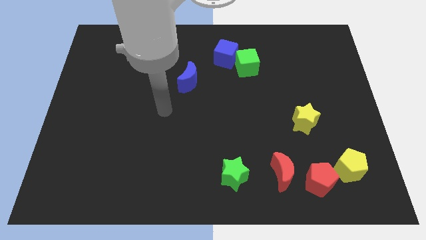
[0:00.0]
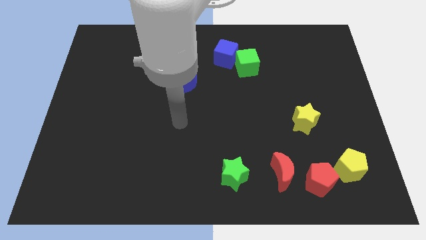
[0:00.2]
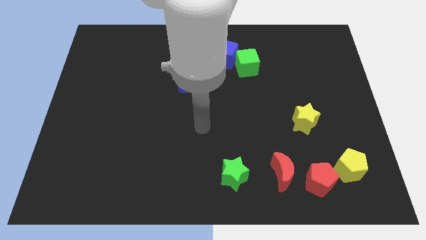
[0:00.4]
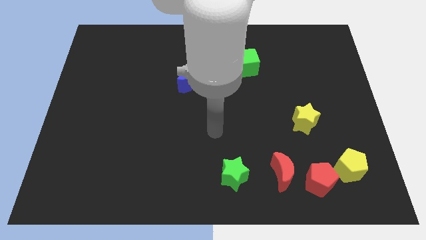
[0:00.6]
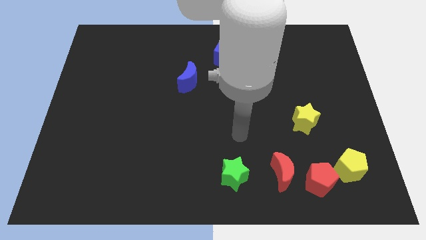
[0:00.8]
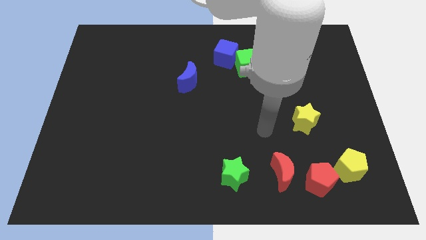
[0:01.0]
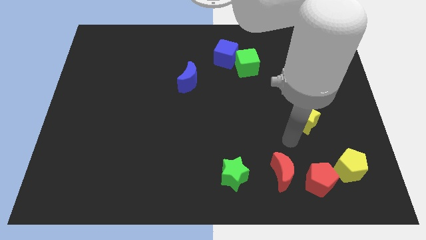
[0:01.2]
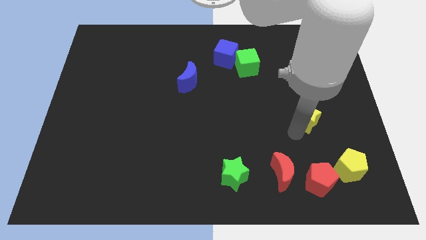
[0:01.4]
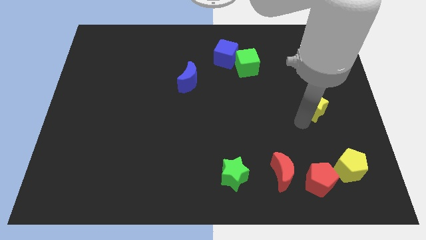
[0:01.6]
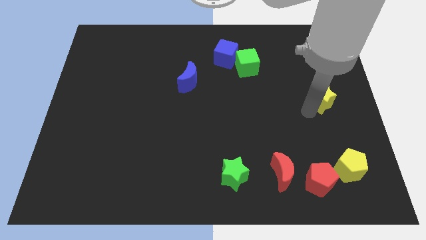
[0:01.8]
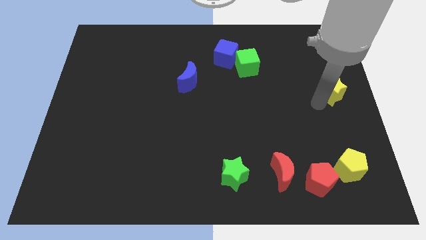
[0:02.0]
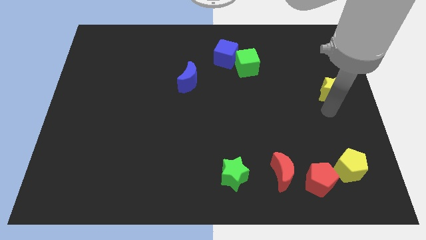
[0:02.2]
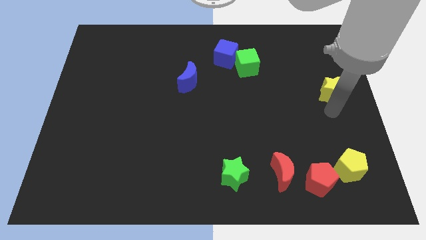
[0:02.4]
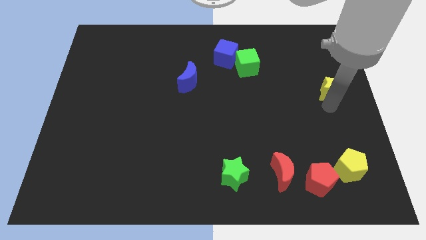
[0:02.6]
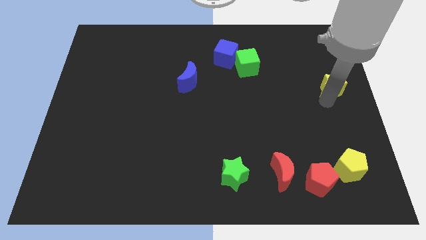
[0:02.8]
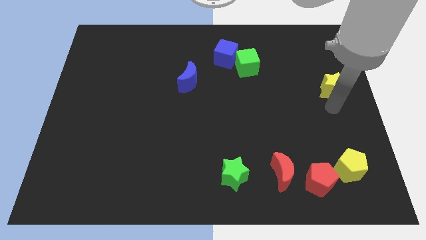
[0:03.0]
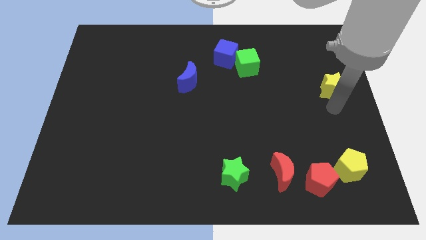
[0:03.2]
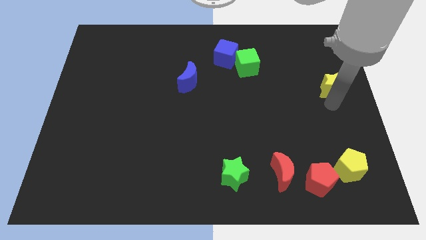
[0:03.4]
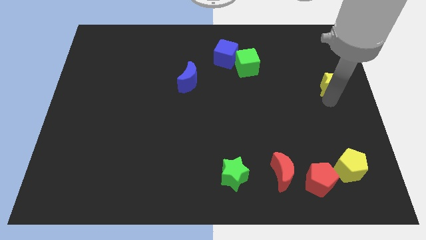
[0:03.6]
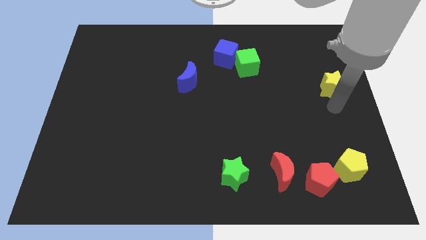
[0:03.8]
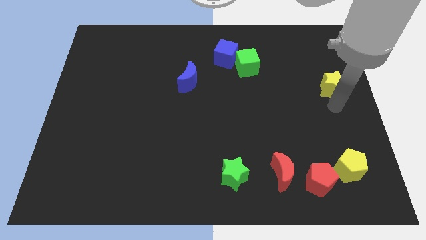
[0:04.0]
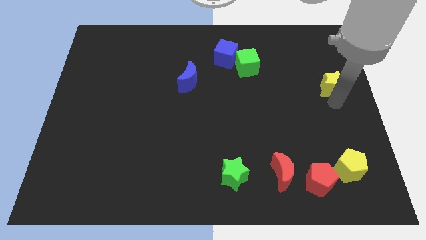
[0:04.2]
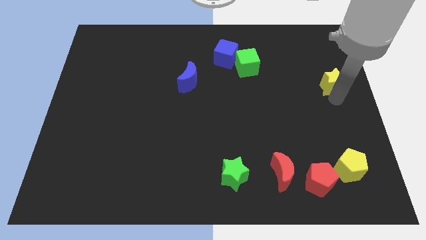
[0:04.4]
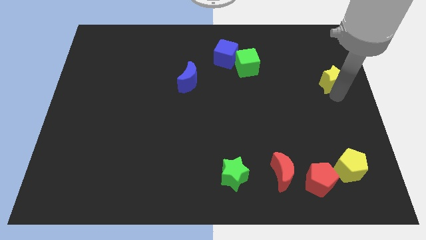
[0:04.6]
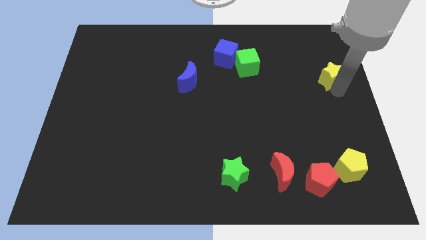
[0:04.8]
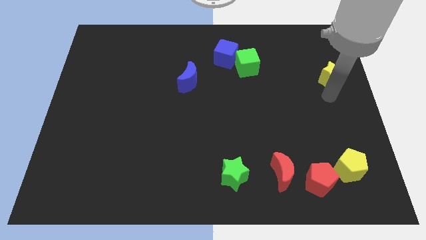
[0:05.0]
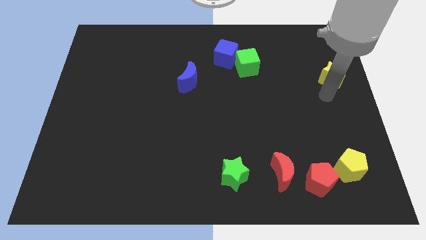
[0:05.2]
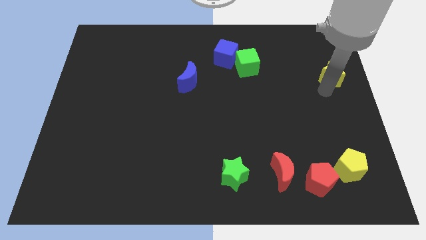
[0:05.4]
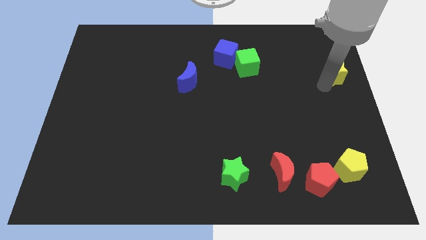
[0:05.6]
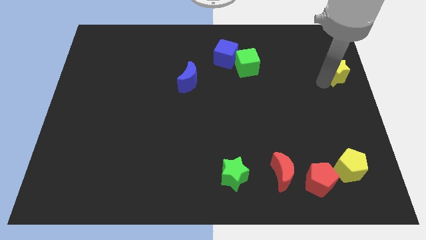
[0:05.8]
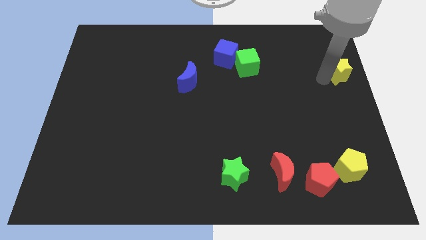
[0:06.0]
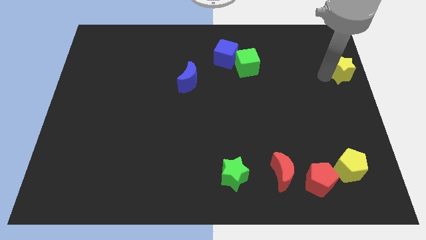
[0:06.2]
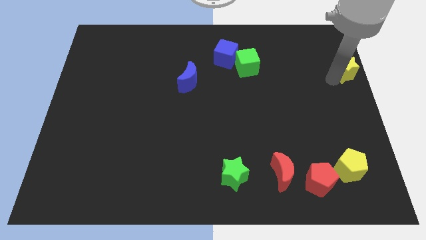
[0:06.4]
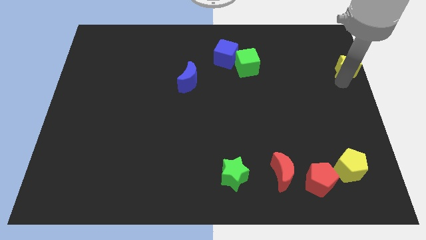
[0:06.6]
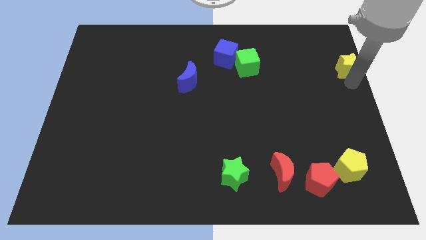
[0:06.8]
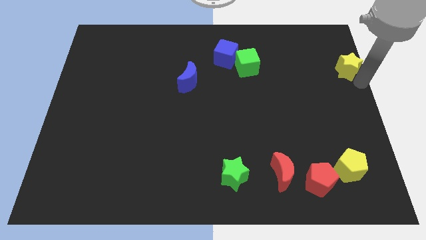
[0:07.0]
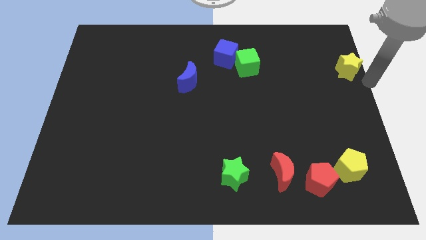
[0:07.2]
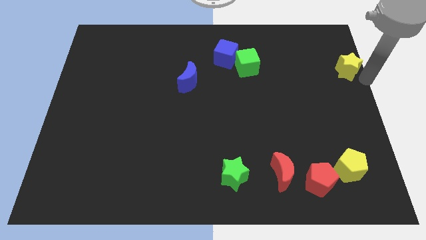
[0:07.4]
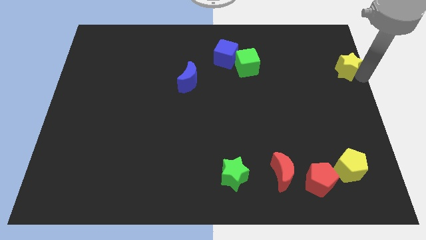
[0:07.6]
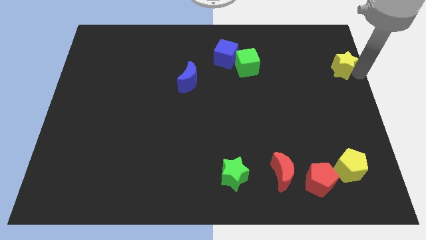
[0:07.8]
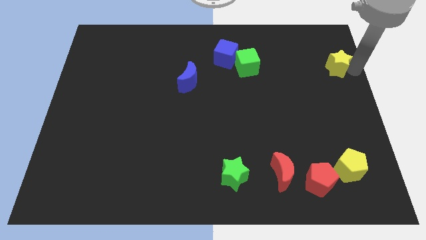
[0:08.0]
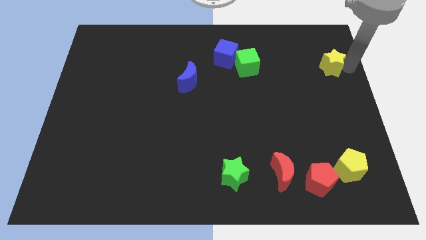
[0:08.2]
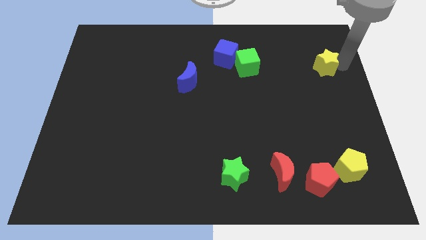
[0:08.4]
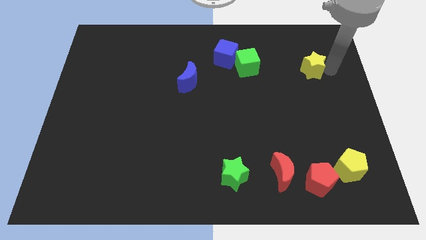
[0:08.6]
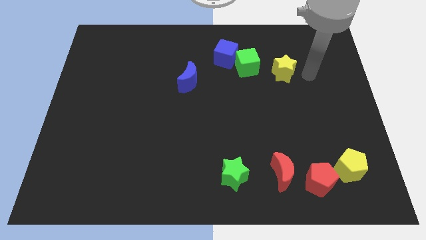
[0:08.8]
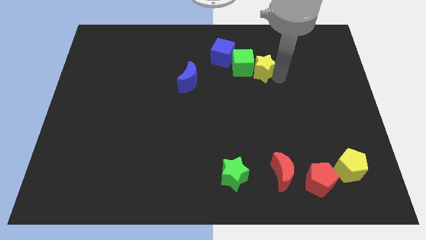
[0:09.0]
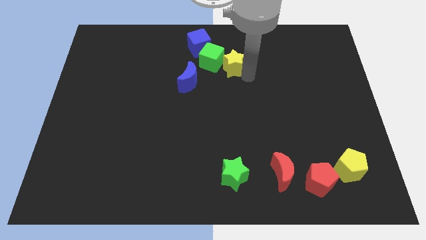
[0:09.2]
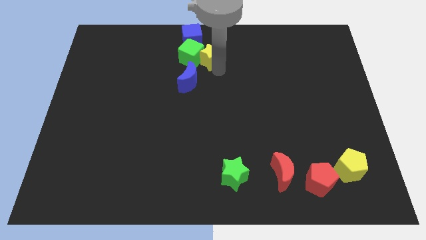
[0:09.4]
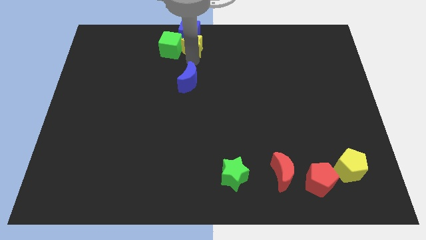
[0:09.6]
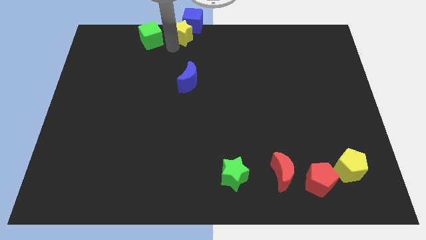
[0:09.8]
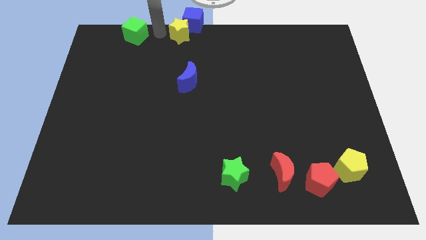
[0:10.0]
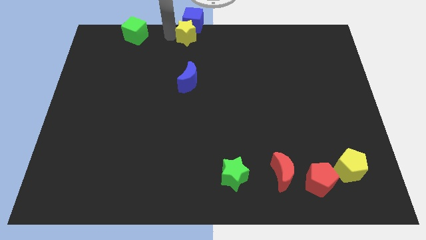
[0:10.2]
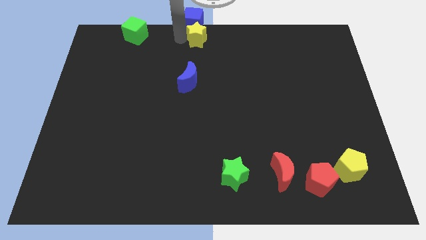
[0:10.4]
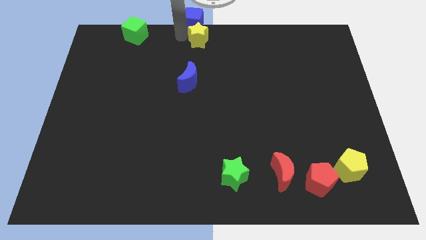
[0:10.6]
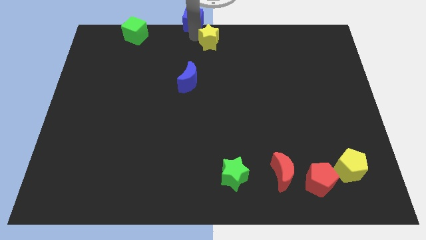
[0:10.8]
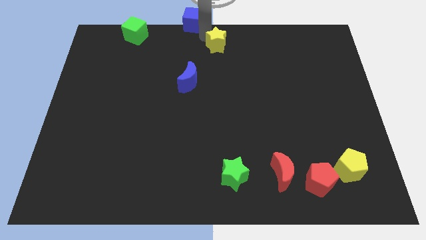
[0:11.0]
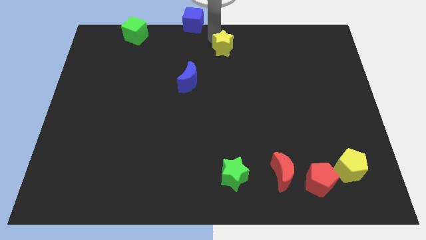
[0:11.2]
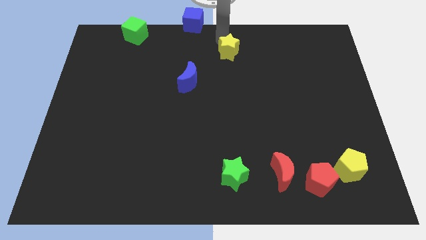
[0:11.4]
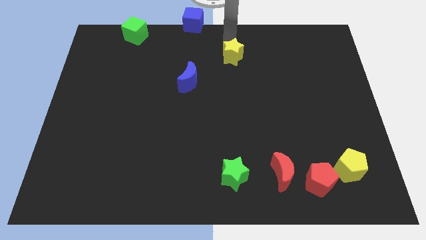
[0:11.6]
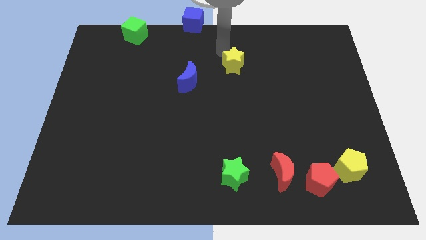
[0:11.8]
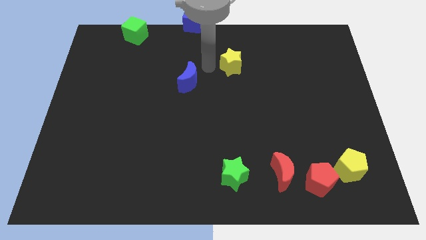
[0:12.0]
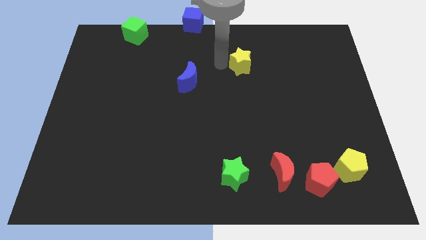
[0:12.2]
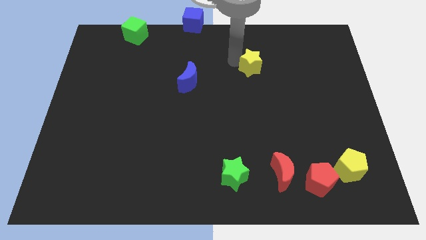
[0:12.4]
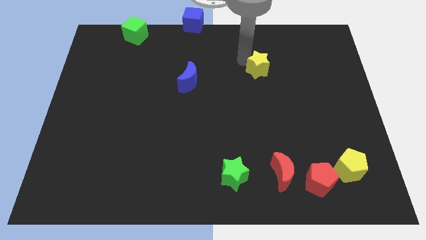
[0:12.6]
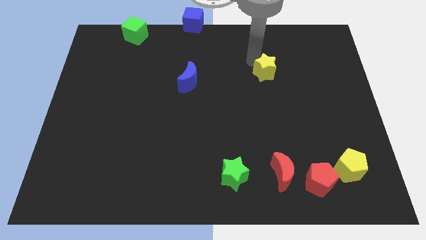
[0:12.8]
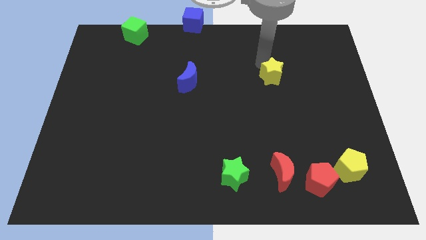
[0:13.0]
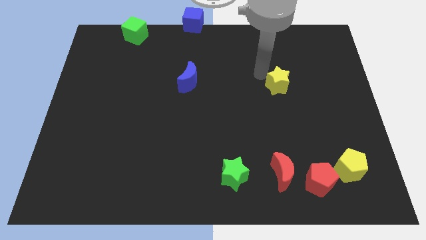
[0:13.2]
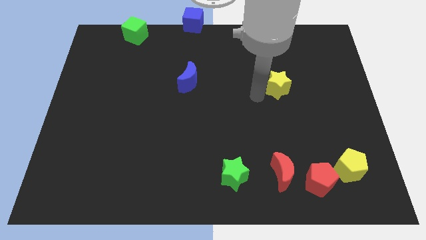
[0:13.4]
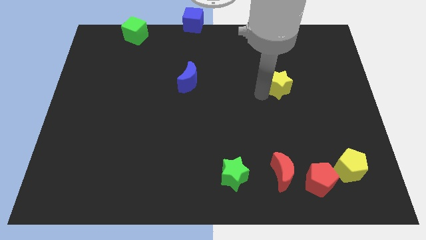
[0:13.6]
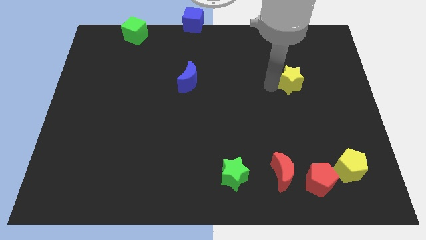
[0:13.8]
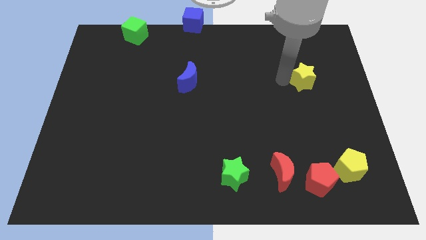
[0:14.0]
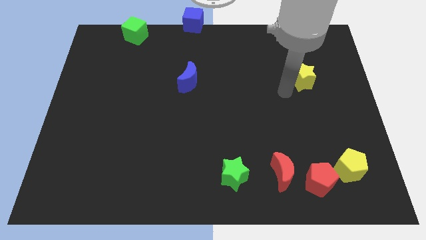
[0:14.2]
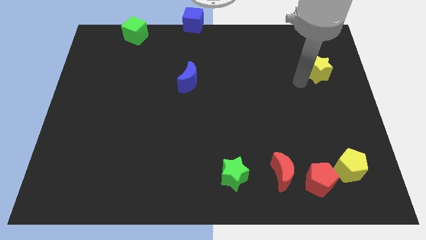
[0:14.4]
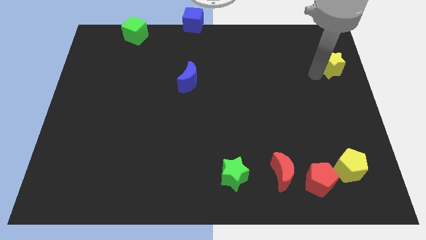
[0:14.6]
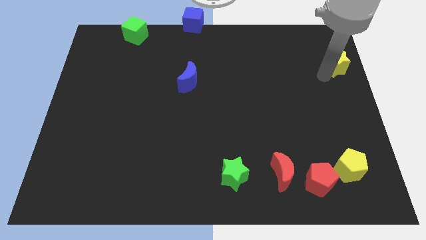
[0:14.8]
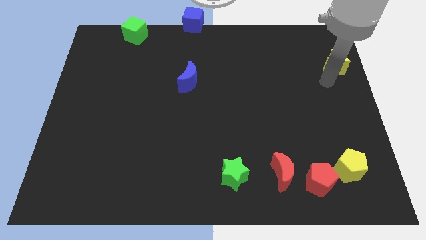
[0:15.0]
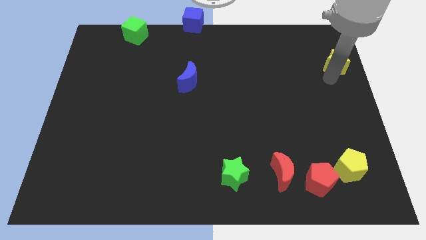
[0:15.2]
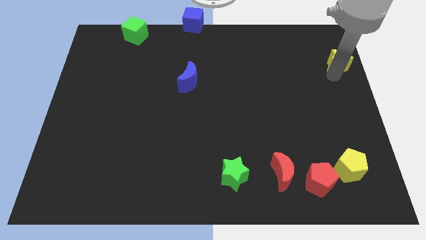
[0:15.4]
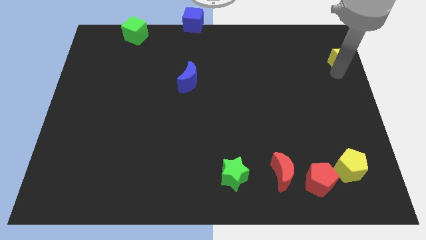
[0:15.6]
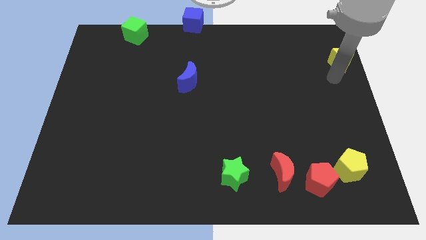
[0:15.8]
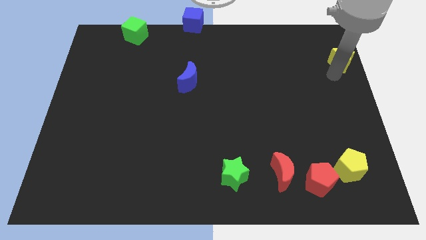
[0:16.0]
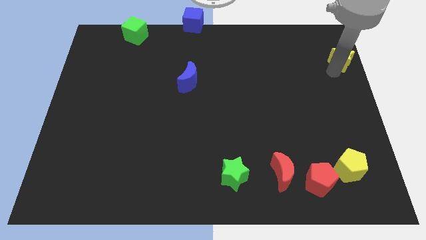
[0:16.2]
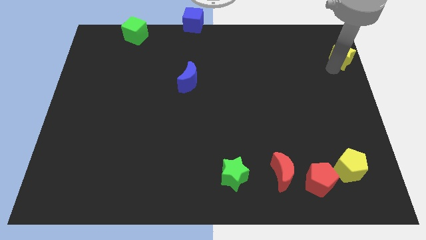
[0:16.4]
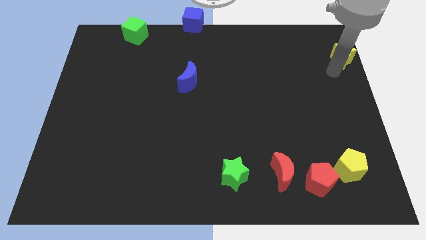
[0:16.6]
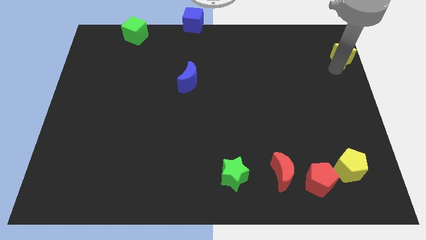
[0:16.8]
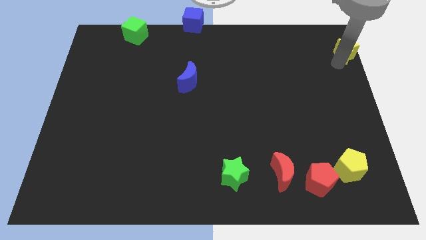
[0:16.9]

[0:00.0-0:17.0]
move the yellow star to the top right
